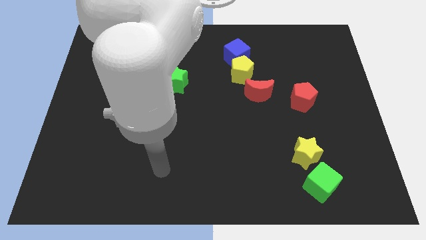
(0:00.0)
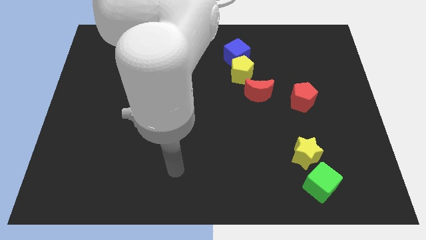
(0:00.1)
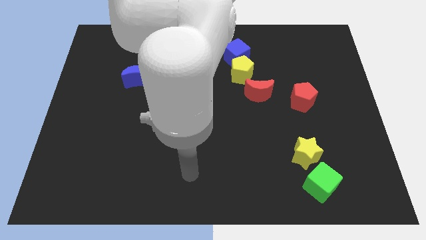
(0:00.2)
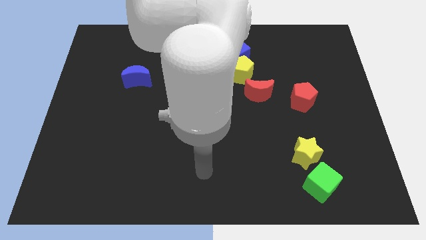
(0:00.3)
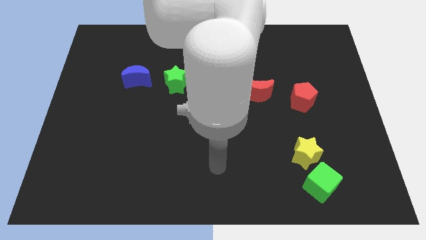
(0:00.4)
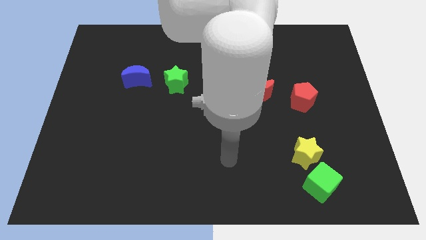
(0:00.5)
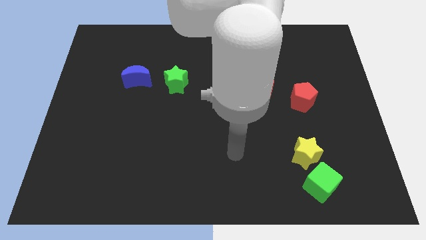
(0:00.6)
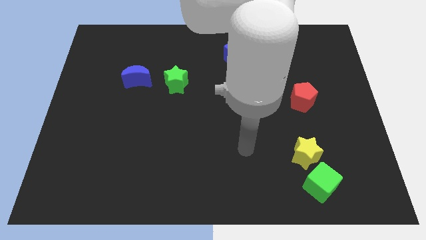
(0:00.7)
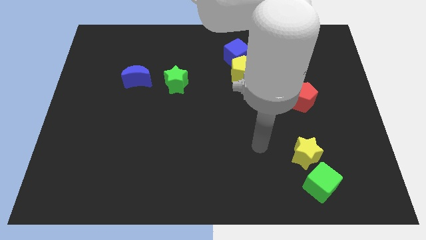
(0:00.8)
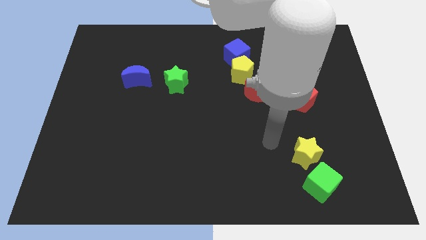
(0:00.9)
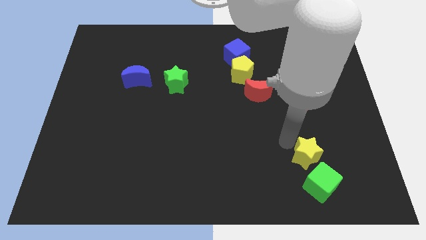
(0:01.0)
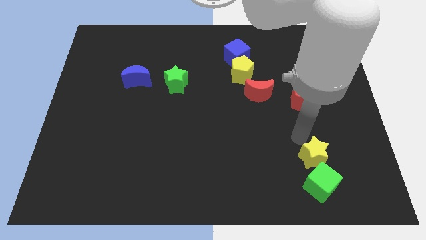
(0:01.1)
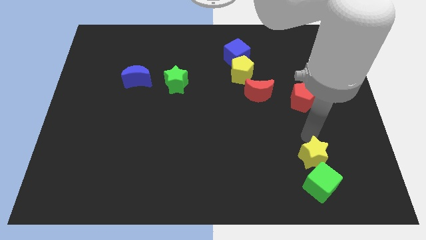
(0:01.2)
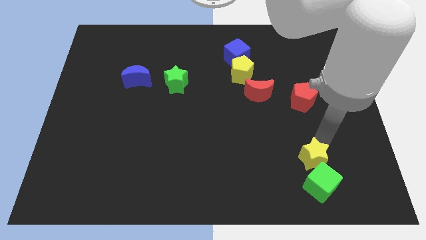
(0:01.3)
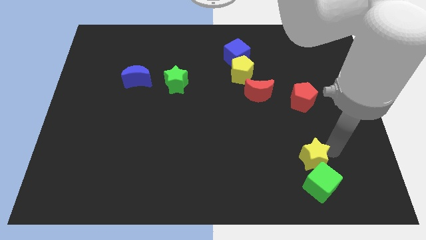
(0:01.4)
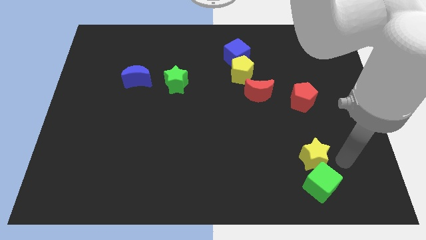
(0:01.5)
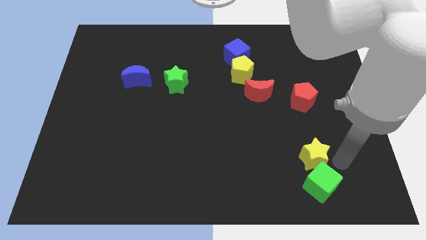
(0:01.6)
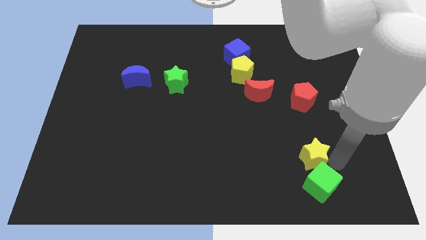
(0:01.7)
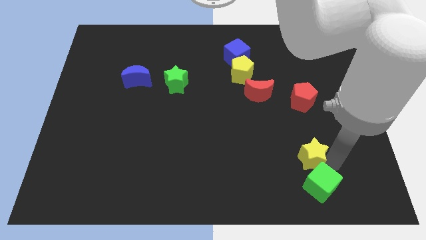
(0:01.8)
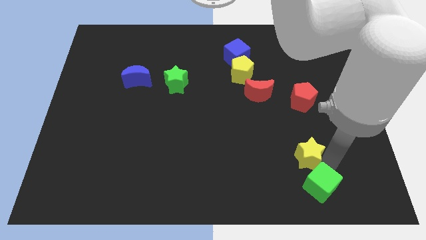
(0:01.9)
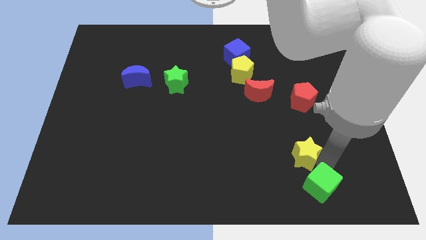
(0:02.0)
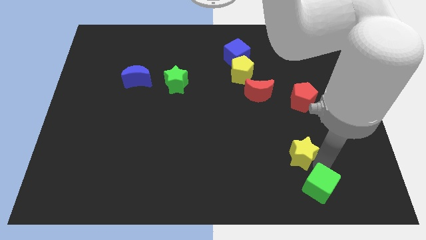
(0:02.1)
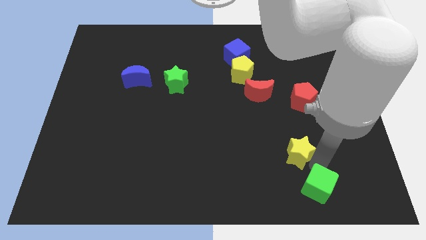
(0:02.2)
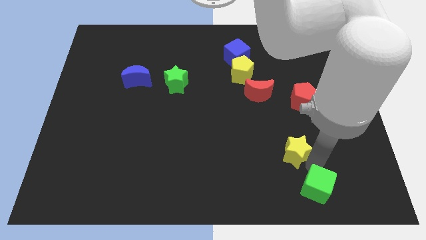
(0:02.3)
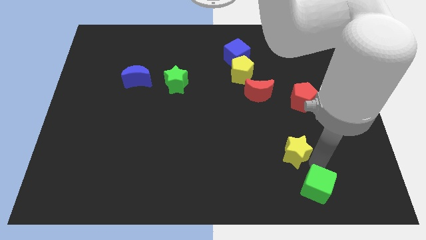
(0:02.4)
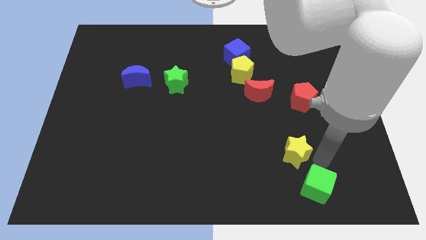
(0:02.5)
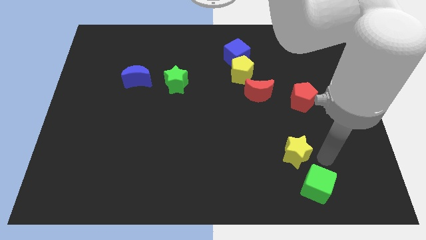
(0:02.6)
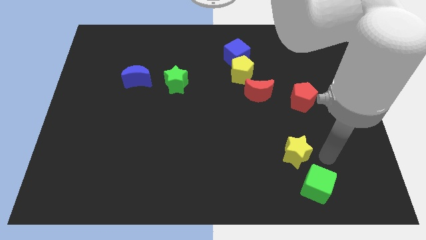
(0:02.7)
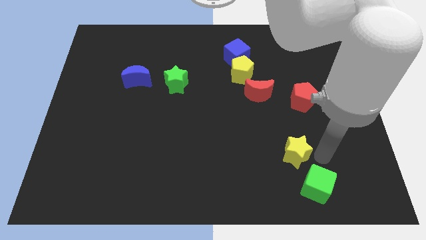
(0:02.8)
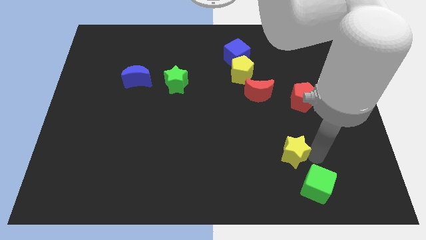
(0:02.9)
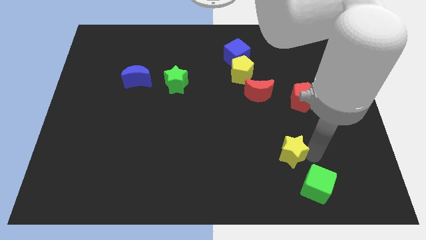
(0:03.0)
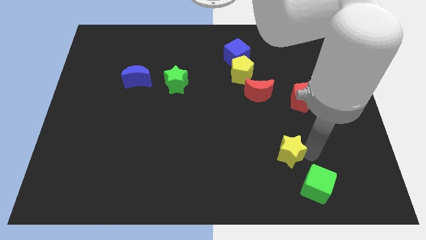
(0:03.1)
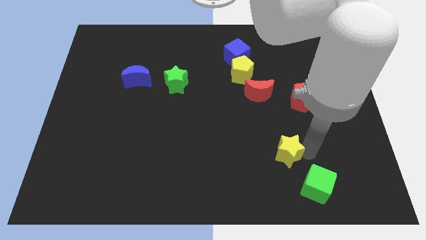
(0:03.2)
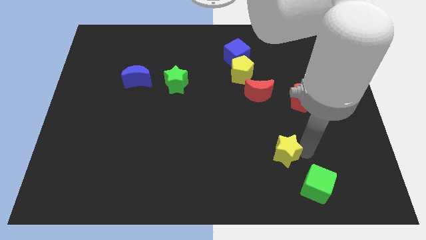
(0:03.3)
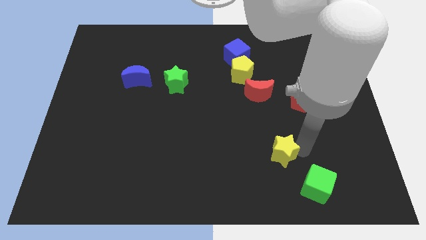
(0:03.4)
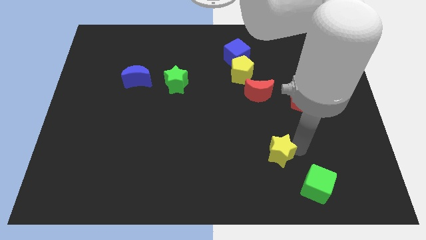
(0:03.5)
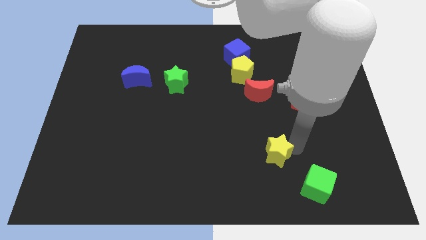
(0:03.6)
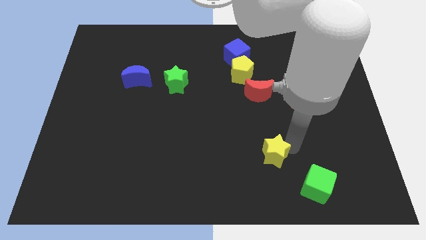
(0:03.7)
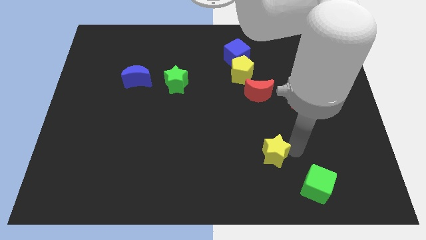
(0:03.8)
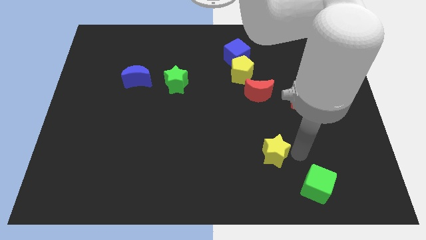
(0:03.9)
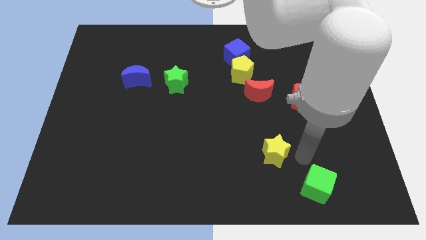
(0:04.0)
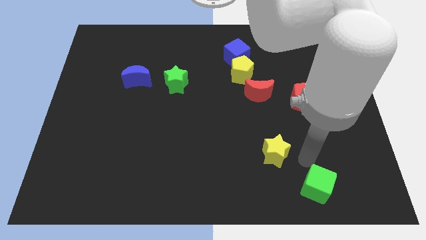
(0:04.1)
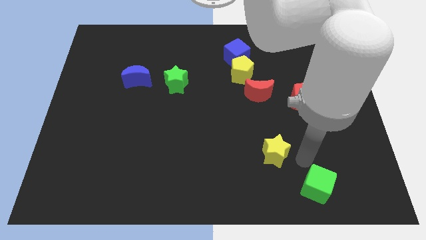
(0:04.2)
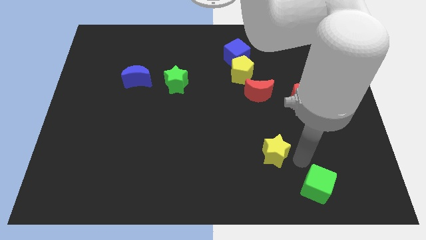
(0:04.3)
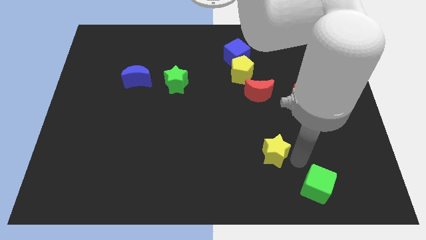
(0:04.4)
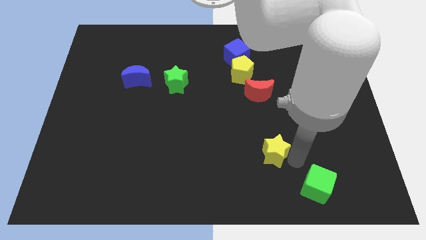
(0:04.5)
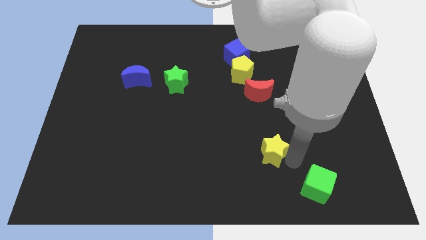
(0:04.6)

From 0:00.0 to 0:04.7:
slide the yellow star to the left slightly

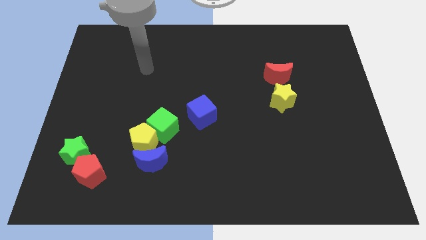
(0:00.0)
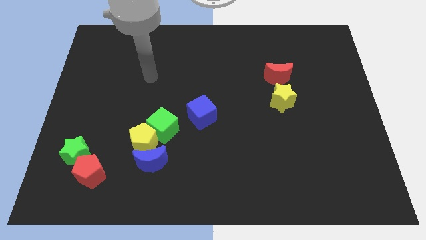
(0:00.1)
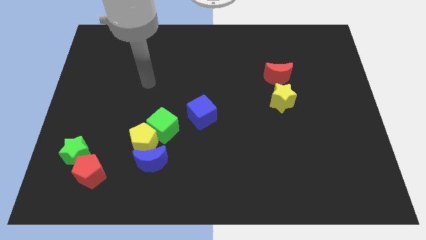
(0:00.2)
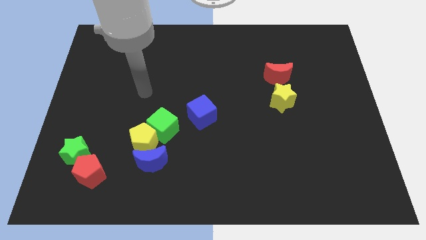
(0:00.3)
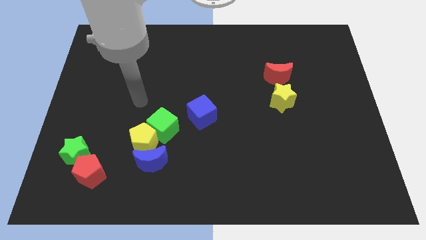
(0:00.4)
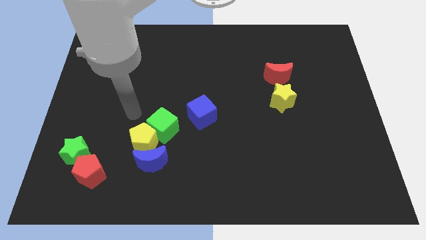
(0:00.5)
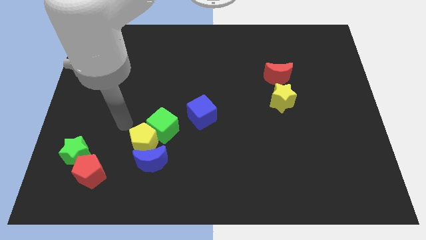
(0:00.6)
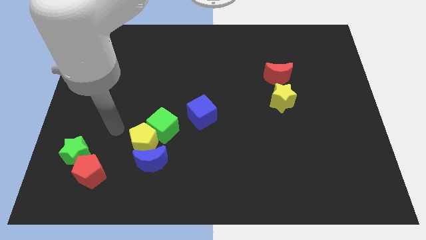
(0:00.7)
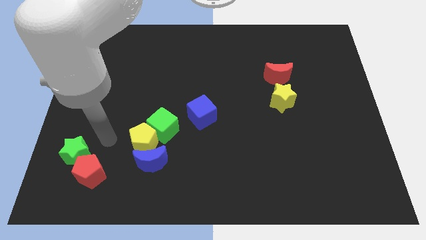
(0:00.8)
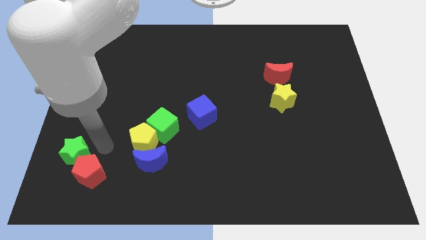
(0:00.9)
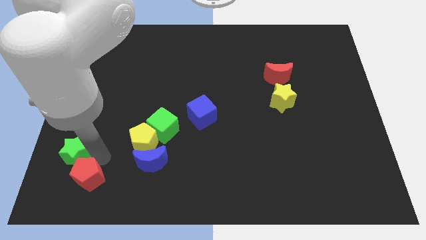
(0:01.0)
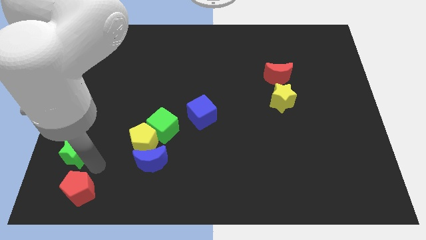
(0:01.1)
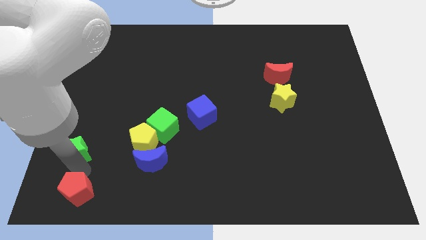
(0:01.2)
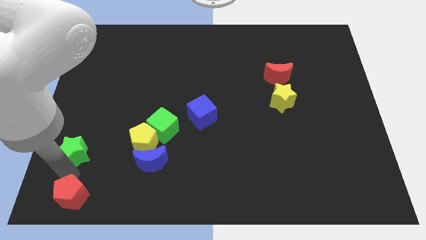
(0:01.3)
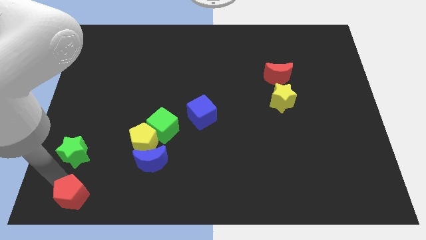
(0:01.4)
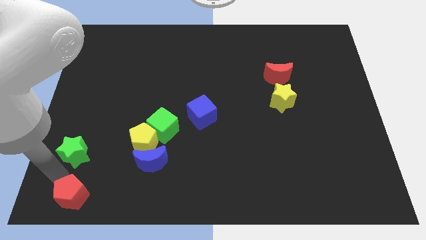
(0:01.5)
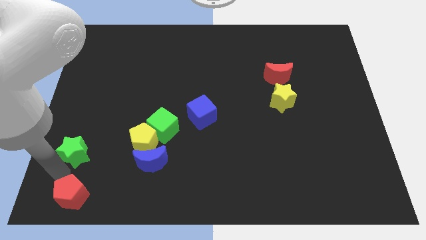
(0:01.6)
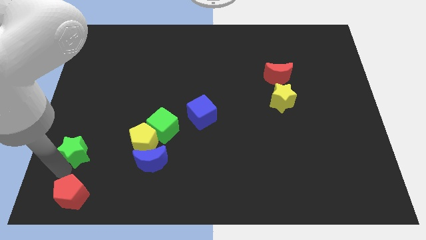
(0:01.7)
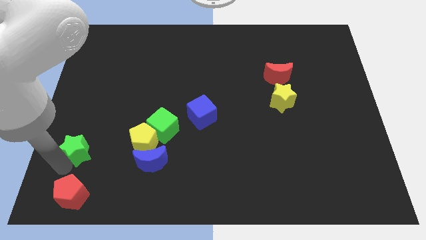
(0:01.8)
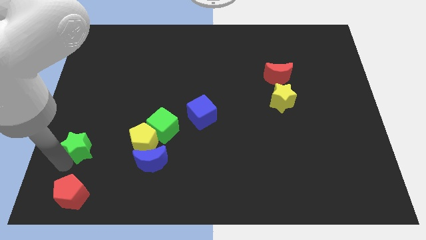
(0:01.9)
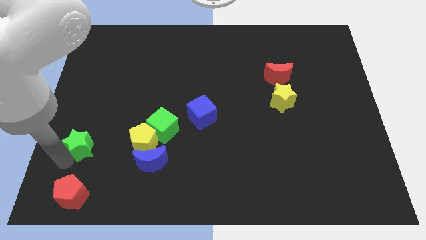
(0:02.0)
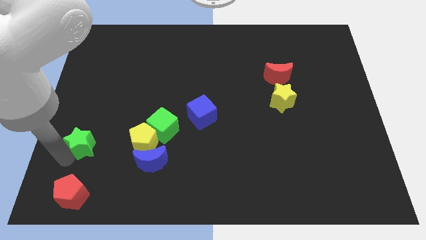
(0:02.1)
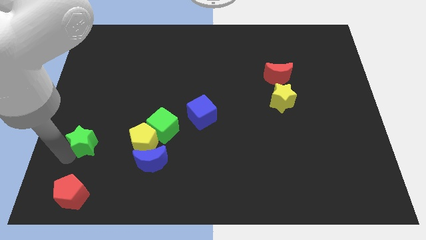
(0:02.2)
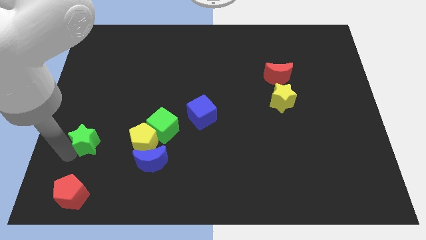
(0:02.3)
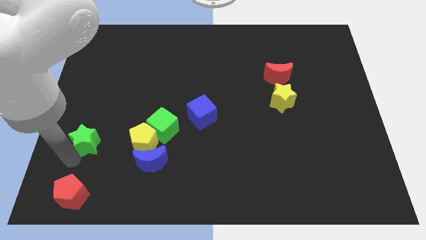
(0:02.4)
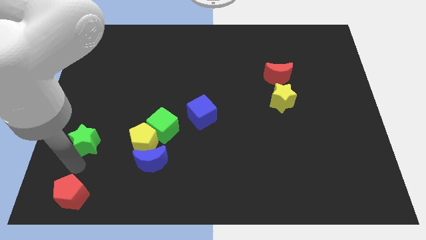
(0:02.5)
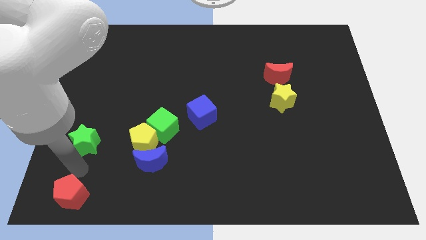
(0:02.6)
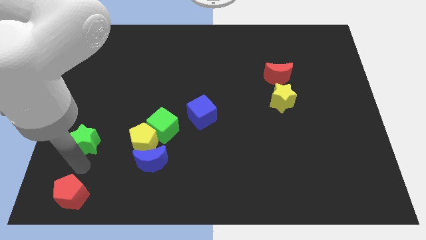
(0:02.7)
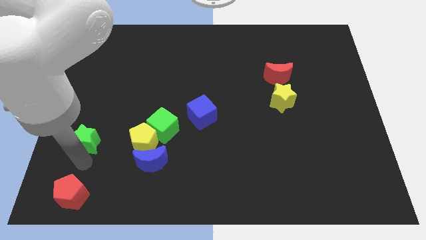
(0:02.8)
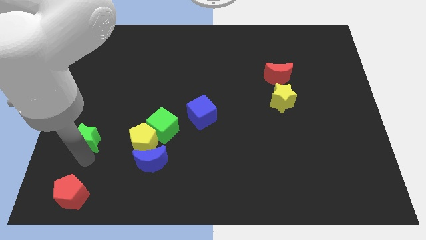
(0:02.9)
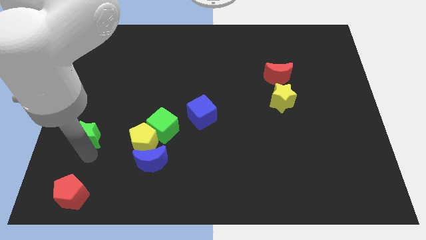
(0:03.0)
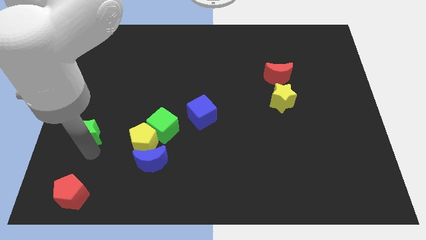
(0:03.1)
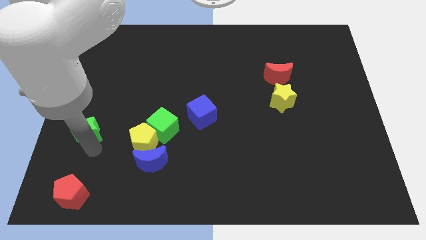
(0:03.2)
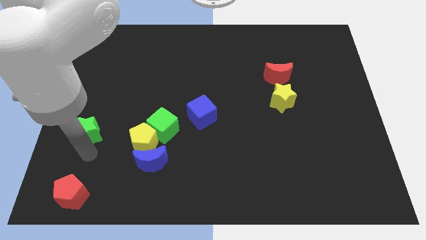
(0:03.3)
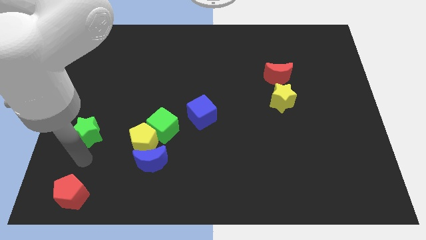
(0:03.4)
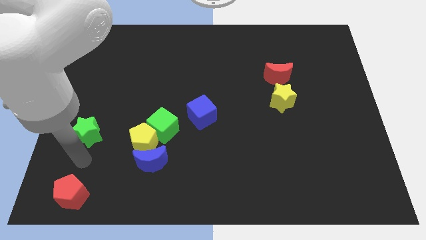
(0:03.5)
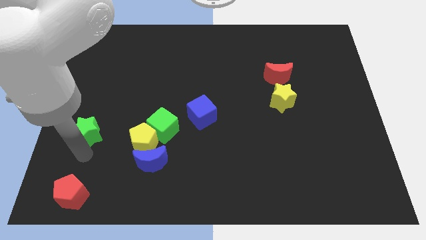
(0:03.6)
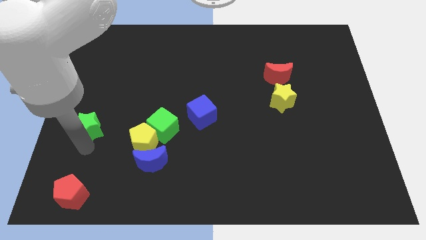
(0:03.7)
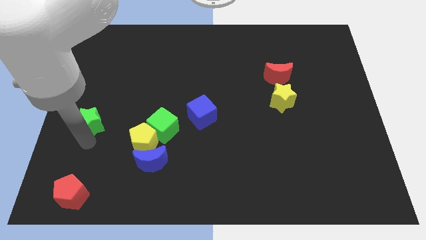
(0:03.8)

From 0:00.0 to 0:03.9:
slightly move the green star upwards
